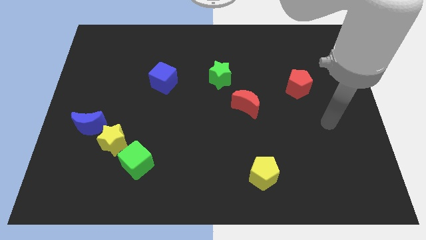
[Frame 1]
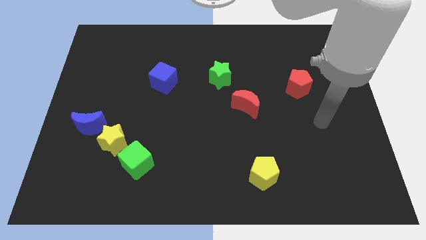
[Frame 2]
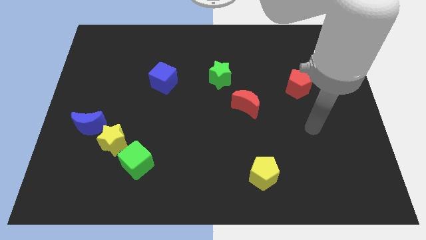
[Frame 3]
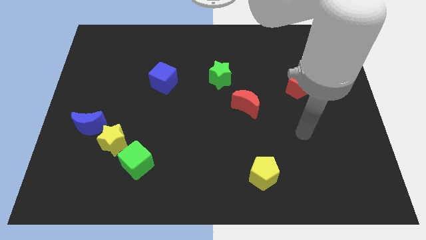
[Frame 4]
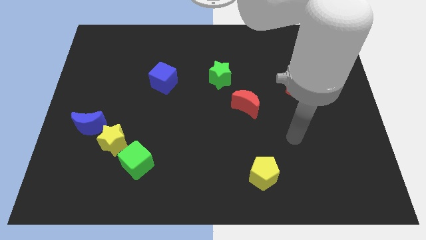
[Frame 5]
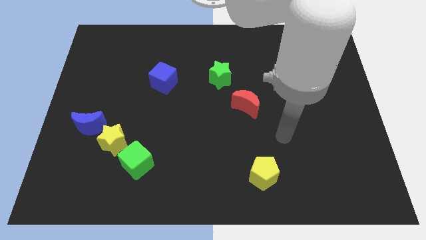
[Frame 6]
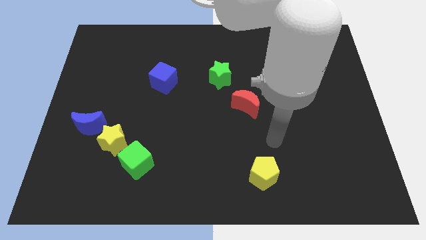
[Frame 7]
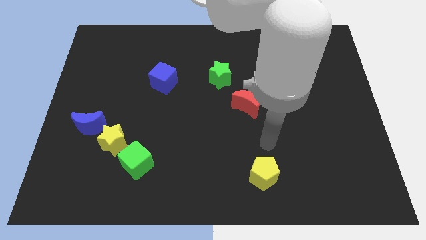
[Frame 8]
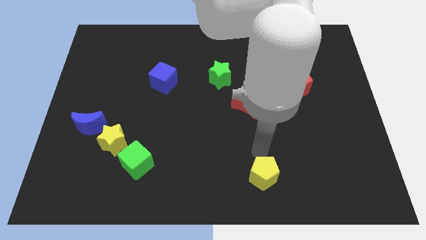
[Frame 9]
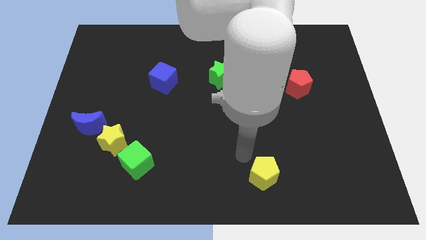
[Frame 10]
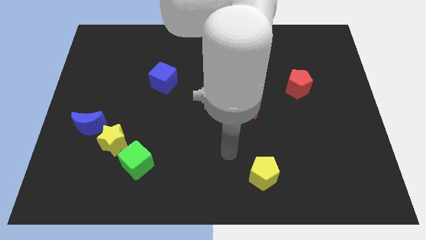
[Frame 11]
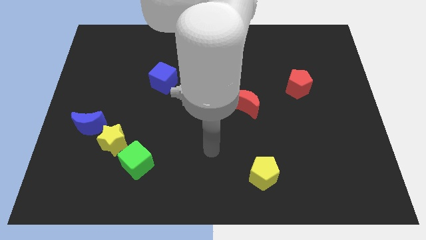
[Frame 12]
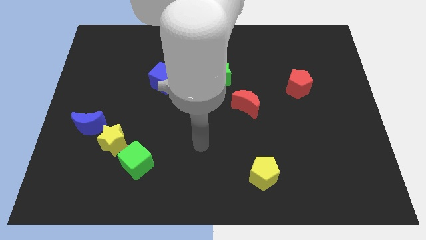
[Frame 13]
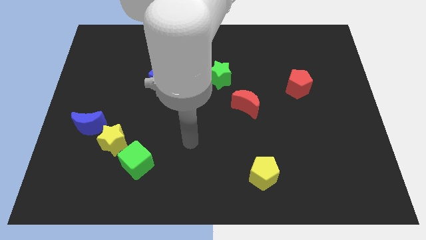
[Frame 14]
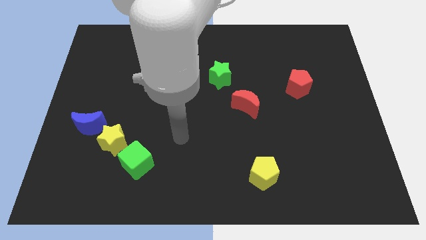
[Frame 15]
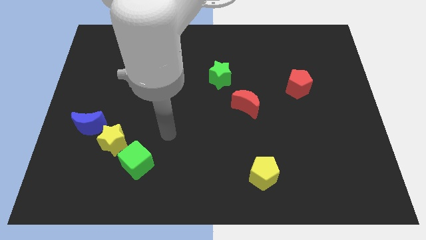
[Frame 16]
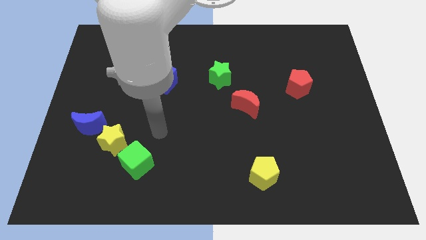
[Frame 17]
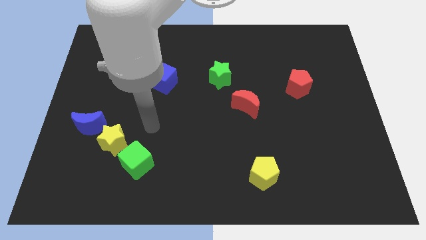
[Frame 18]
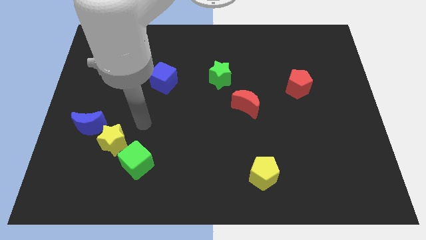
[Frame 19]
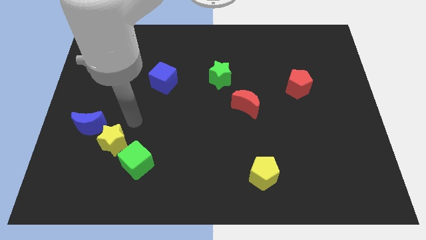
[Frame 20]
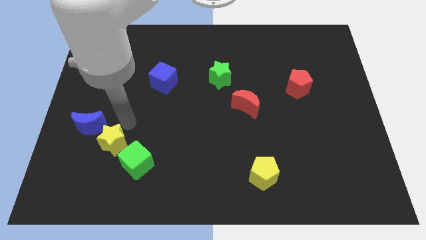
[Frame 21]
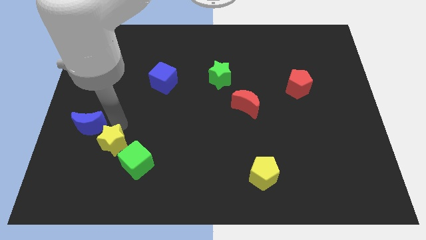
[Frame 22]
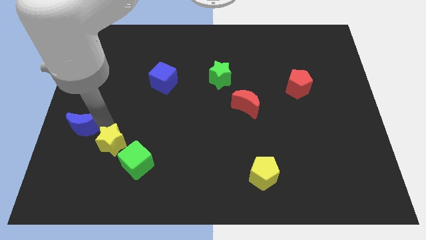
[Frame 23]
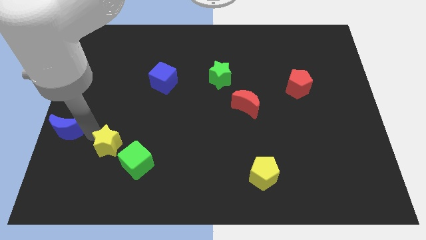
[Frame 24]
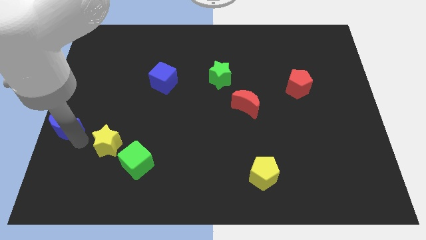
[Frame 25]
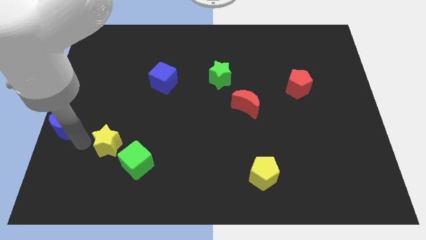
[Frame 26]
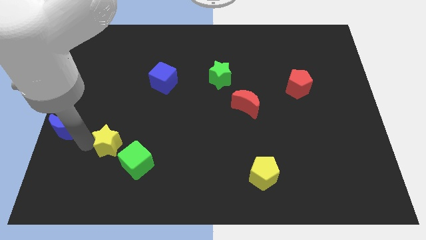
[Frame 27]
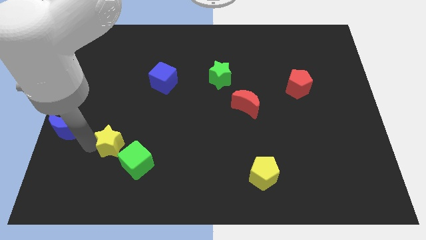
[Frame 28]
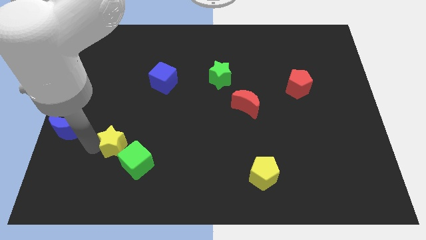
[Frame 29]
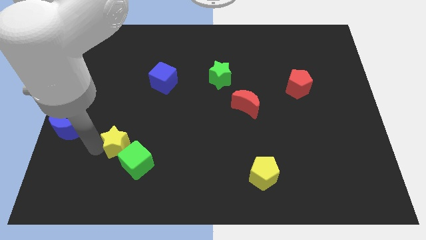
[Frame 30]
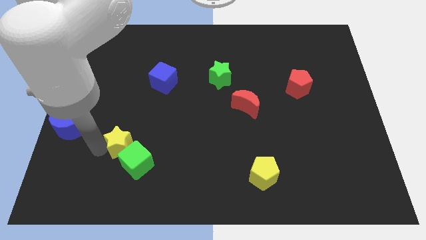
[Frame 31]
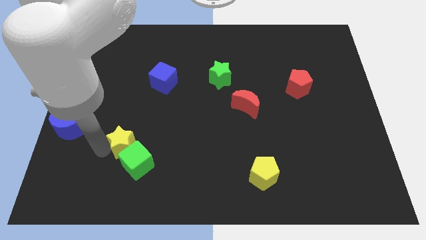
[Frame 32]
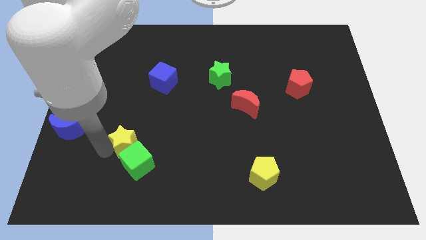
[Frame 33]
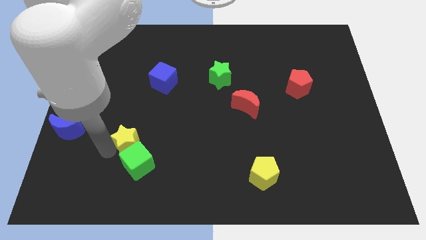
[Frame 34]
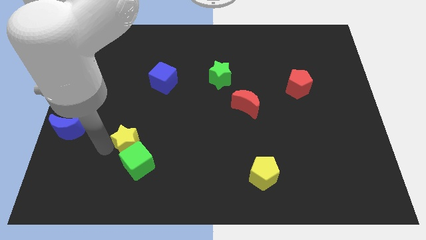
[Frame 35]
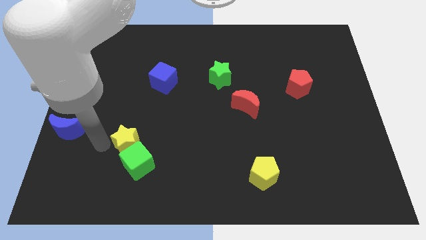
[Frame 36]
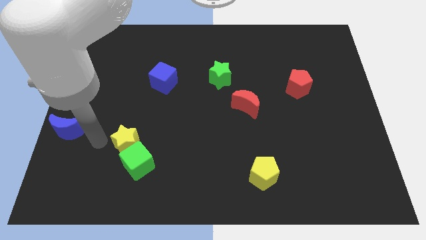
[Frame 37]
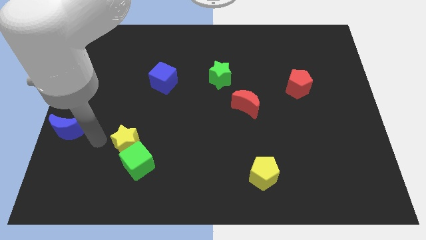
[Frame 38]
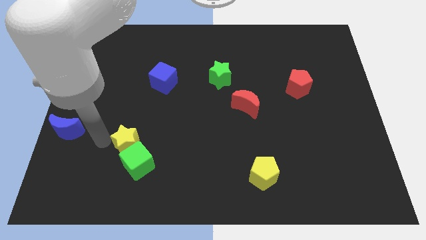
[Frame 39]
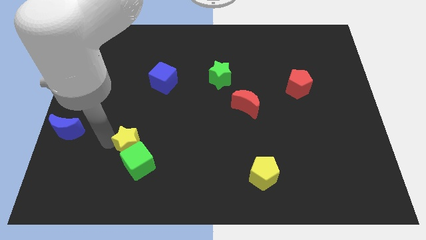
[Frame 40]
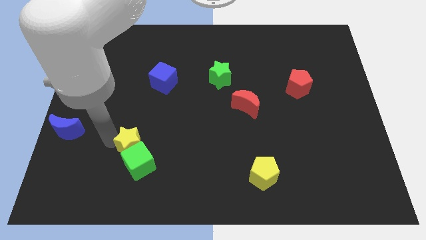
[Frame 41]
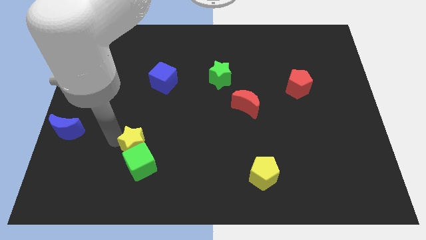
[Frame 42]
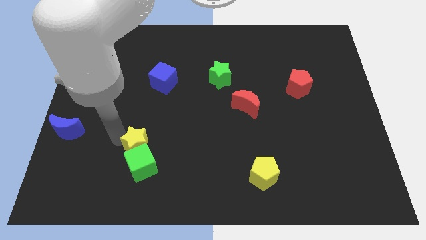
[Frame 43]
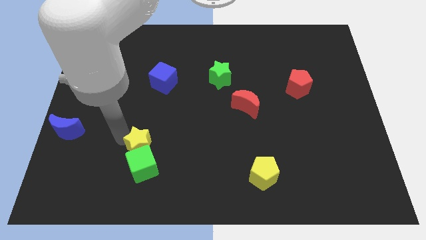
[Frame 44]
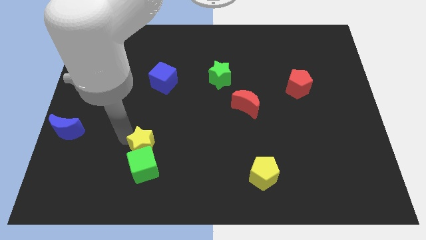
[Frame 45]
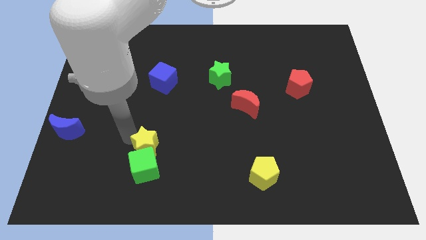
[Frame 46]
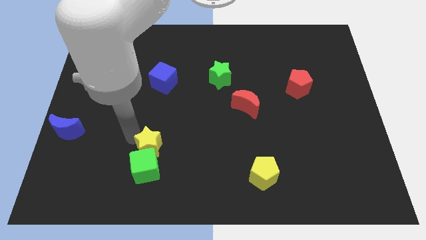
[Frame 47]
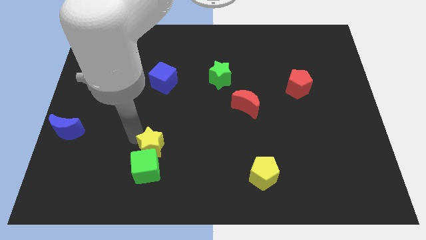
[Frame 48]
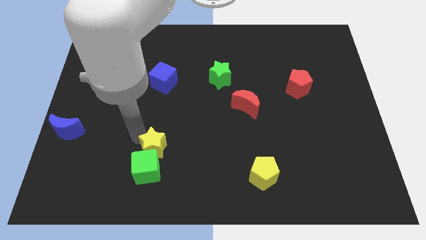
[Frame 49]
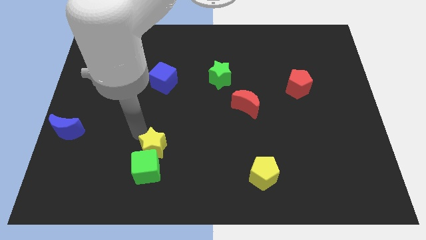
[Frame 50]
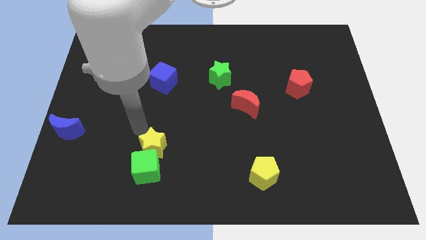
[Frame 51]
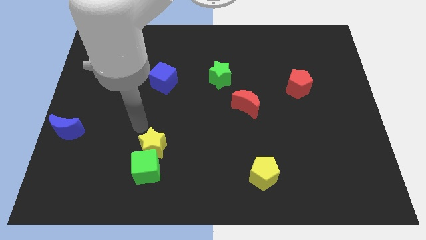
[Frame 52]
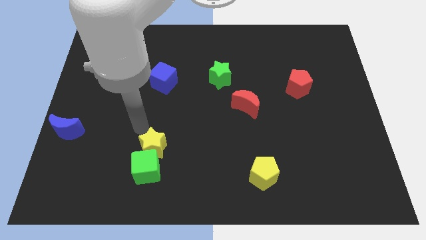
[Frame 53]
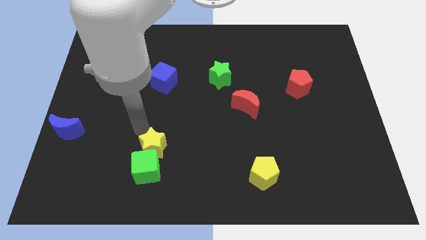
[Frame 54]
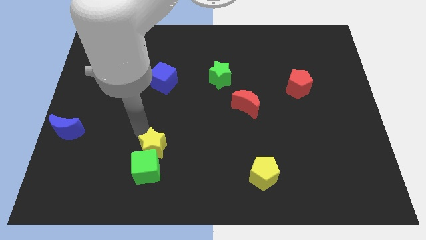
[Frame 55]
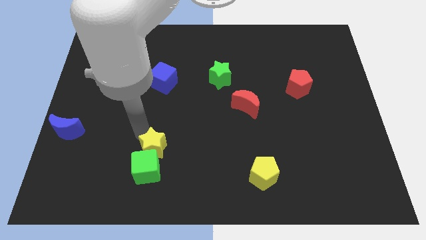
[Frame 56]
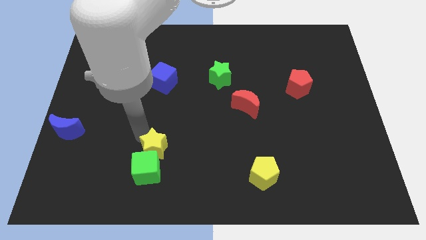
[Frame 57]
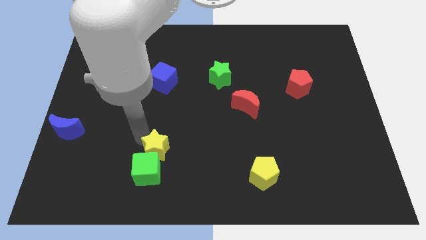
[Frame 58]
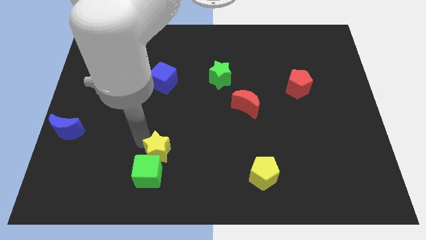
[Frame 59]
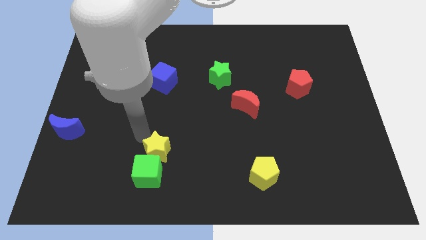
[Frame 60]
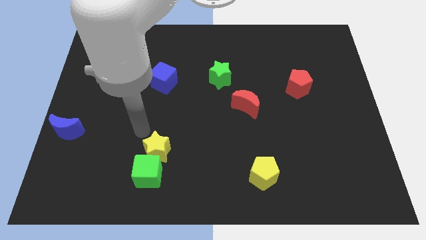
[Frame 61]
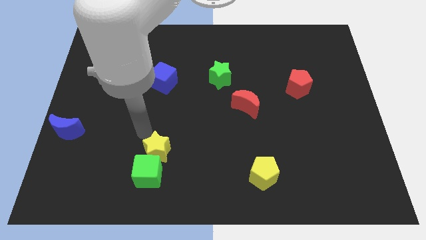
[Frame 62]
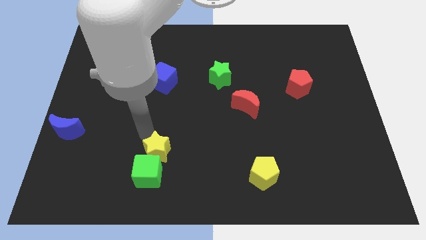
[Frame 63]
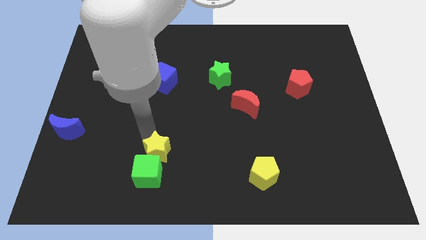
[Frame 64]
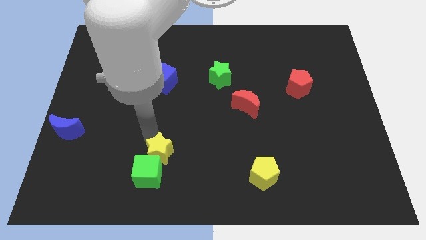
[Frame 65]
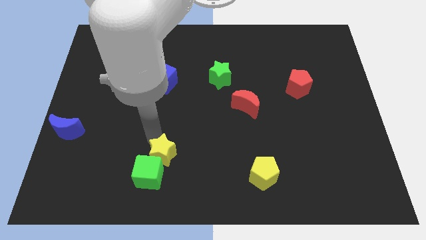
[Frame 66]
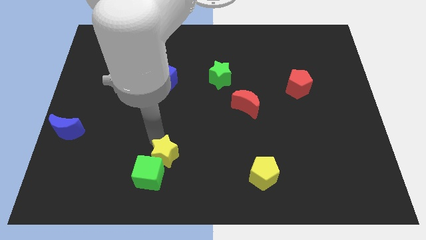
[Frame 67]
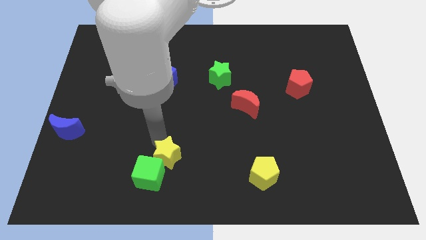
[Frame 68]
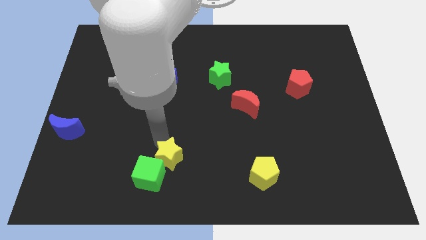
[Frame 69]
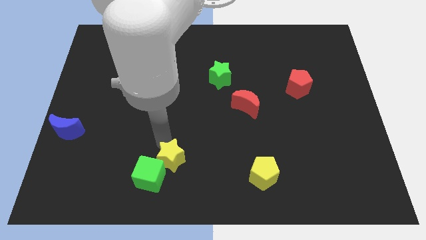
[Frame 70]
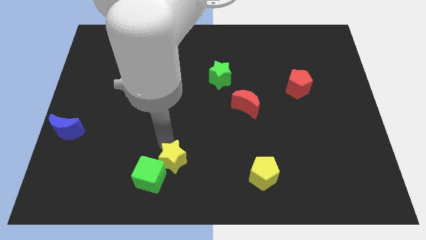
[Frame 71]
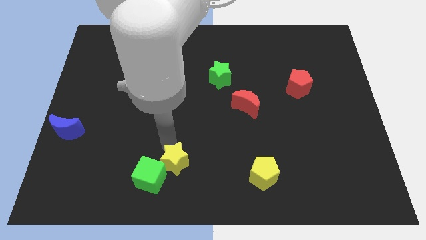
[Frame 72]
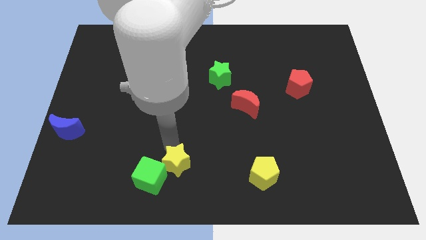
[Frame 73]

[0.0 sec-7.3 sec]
push the yellow star to the bottom
